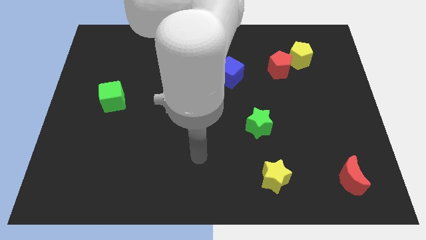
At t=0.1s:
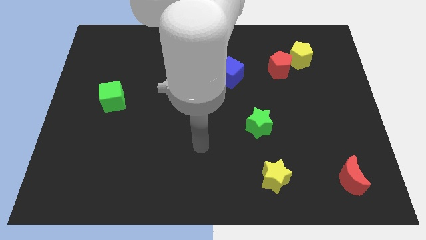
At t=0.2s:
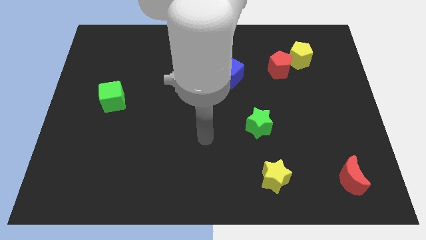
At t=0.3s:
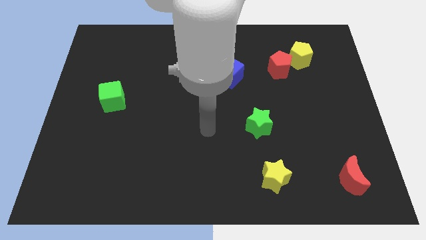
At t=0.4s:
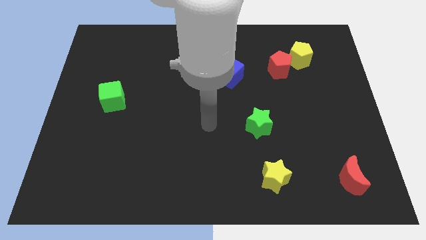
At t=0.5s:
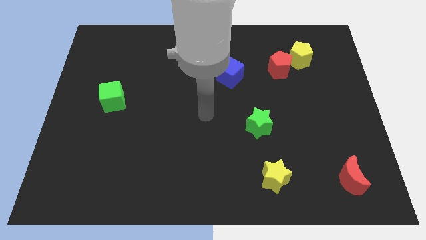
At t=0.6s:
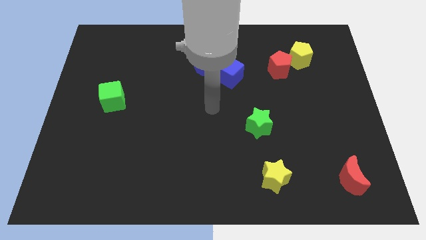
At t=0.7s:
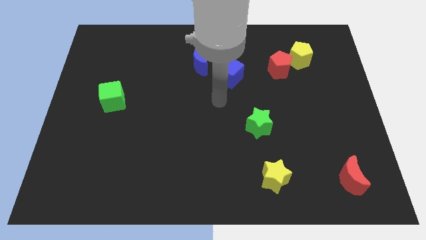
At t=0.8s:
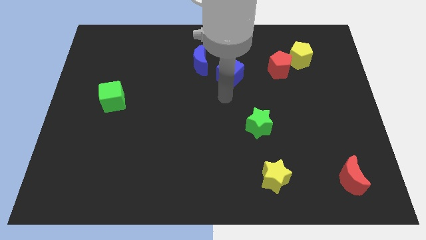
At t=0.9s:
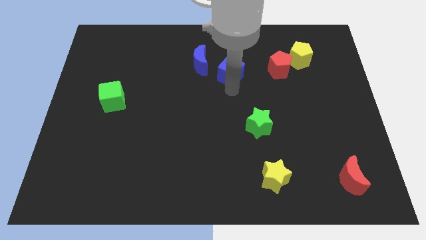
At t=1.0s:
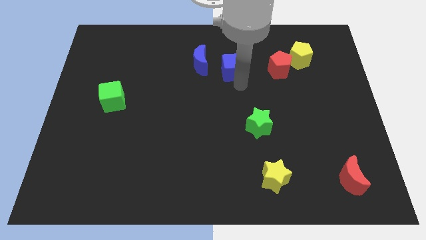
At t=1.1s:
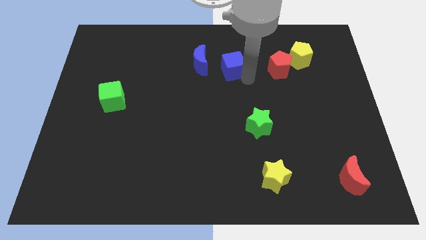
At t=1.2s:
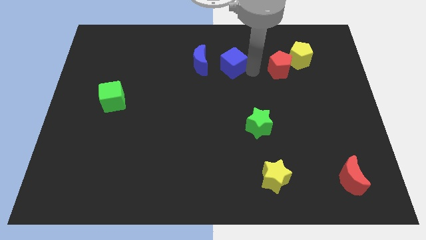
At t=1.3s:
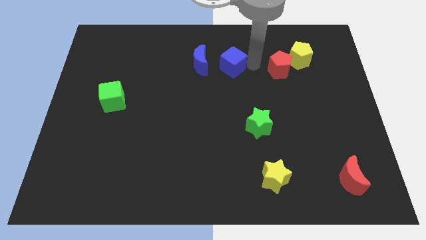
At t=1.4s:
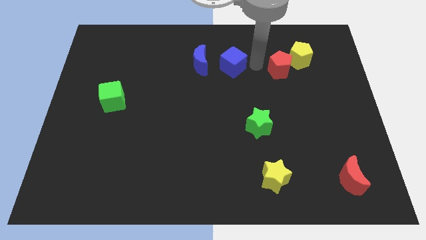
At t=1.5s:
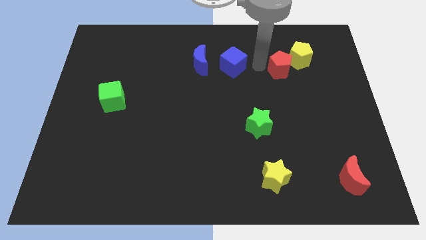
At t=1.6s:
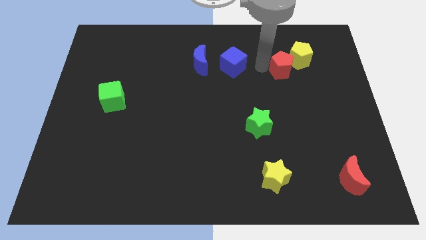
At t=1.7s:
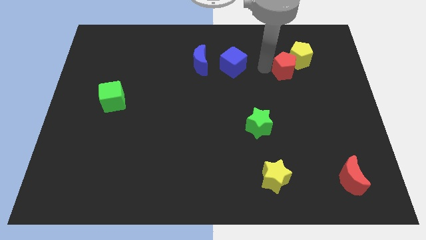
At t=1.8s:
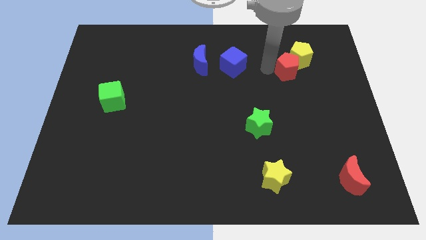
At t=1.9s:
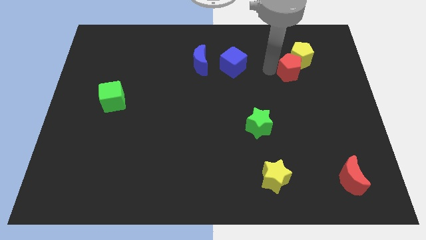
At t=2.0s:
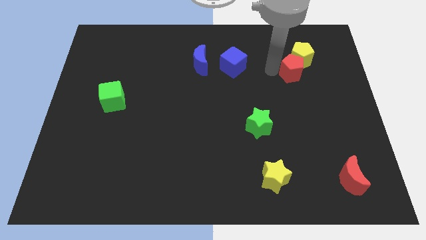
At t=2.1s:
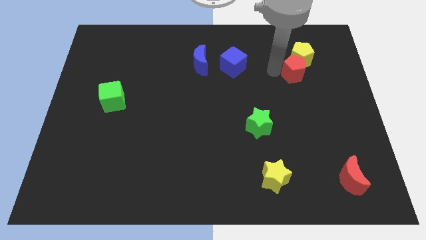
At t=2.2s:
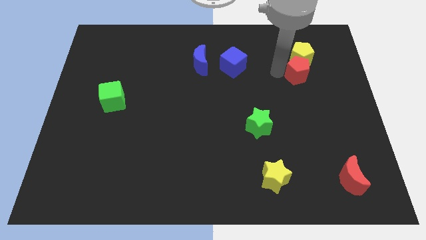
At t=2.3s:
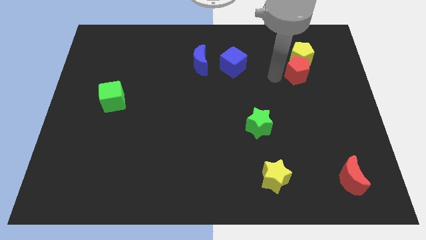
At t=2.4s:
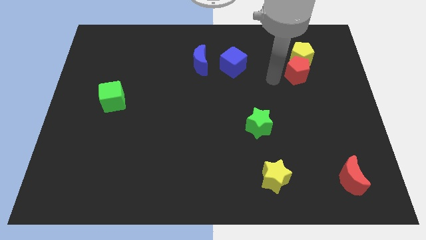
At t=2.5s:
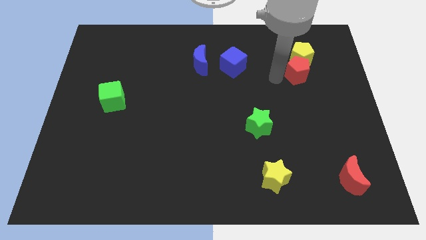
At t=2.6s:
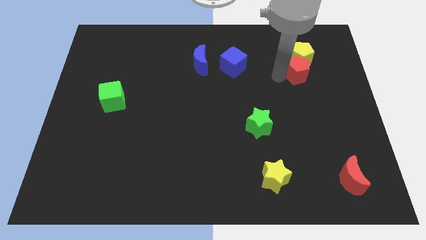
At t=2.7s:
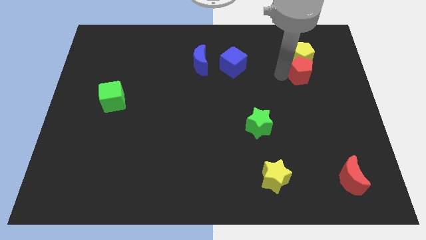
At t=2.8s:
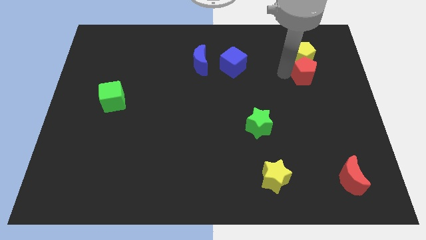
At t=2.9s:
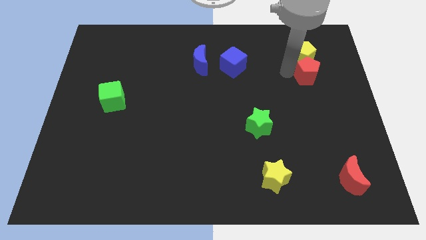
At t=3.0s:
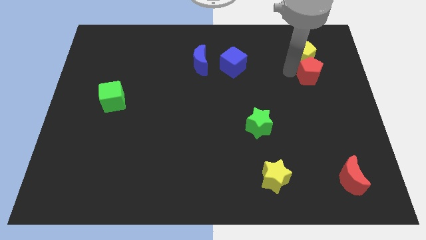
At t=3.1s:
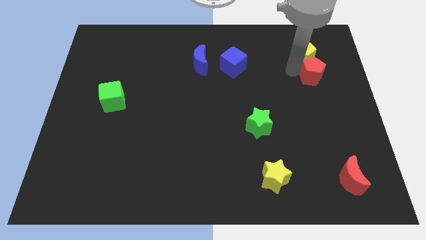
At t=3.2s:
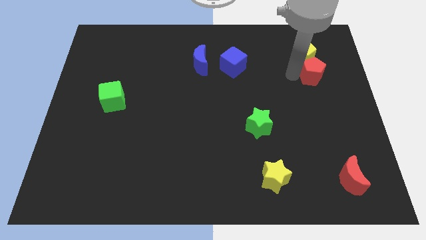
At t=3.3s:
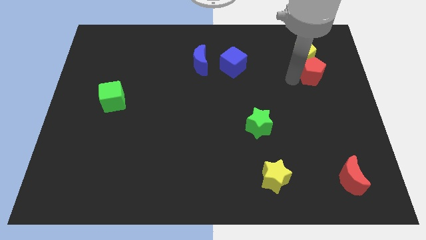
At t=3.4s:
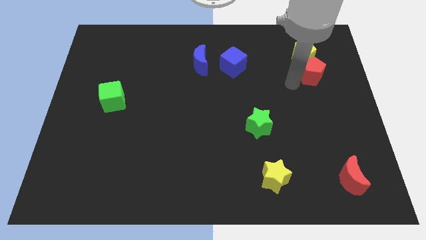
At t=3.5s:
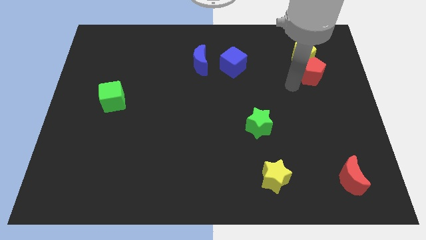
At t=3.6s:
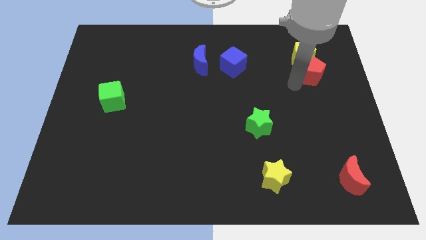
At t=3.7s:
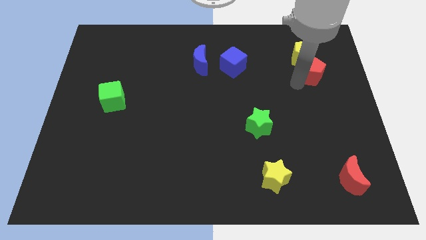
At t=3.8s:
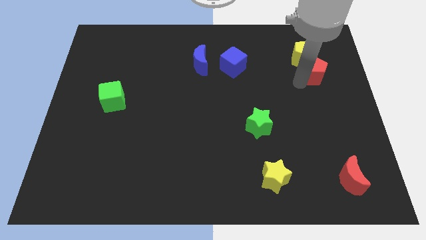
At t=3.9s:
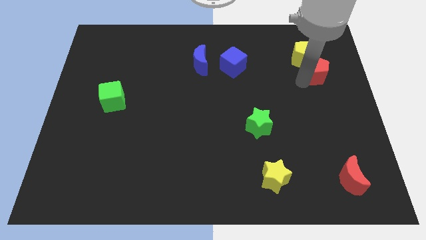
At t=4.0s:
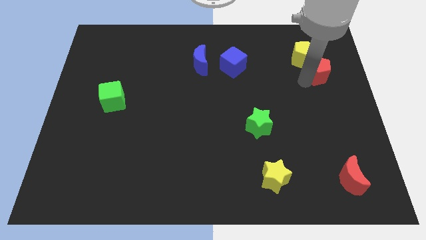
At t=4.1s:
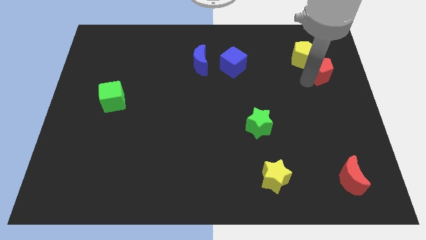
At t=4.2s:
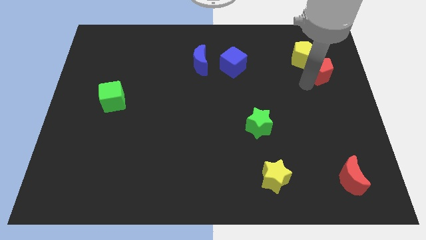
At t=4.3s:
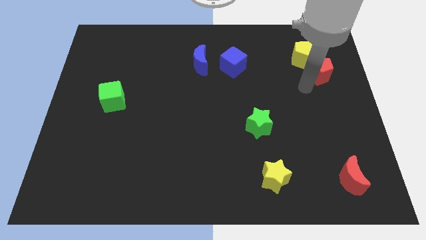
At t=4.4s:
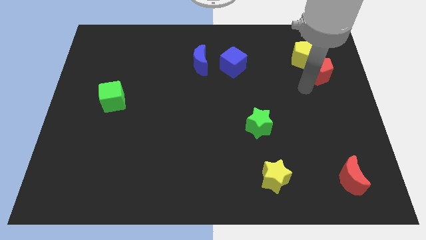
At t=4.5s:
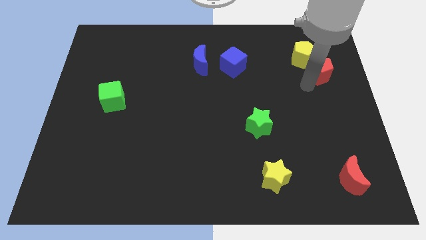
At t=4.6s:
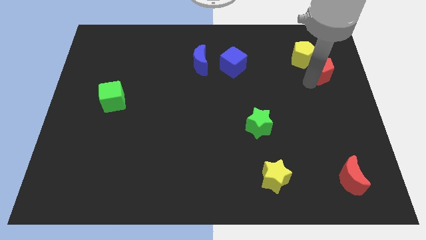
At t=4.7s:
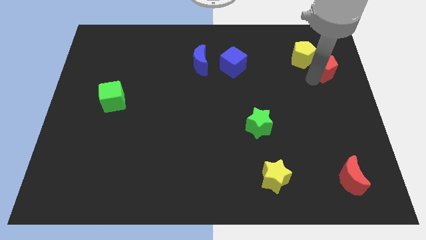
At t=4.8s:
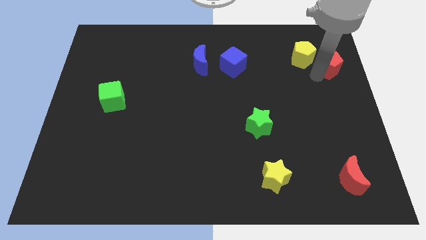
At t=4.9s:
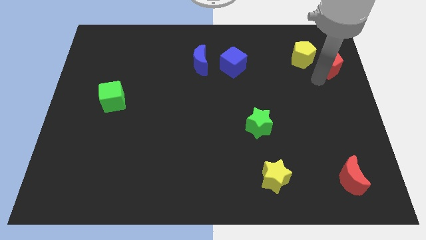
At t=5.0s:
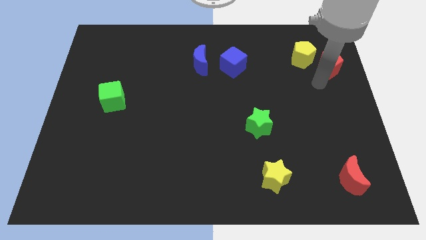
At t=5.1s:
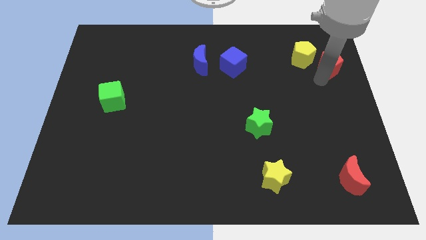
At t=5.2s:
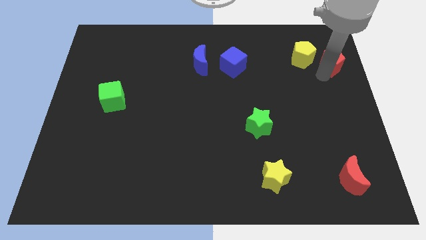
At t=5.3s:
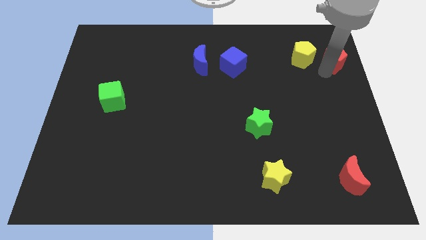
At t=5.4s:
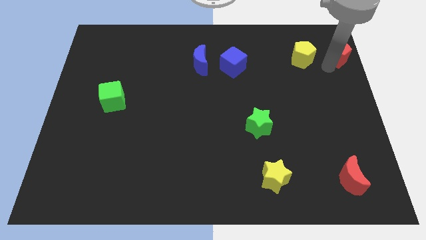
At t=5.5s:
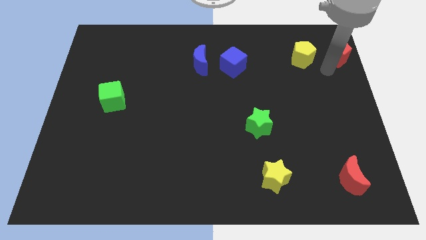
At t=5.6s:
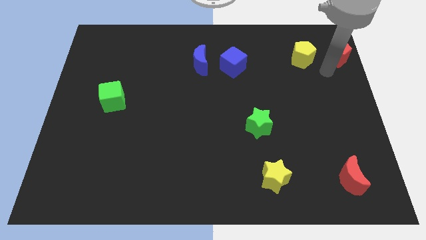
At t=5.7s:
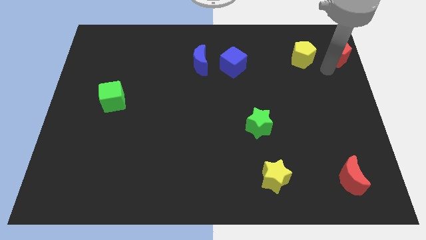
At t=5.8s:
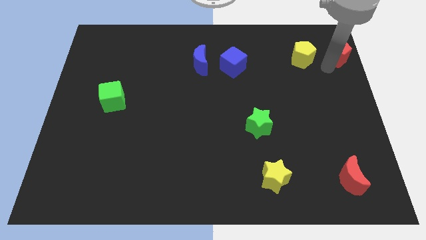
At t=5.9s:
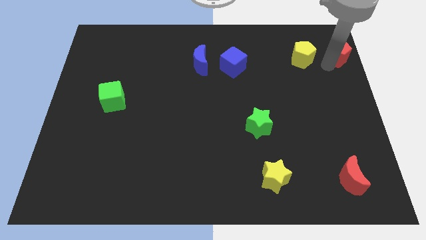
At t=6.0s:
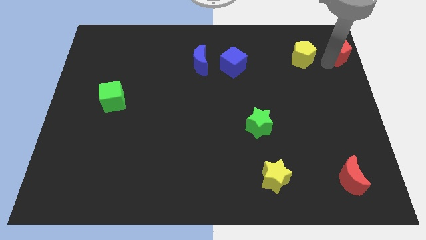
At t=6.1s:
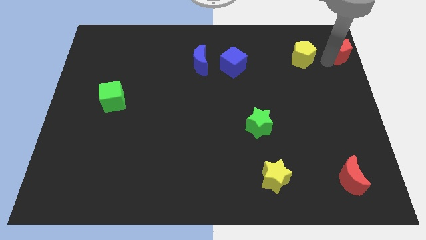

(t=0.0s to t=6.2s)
slide the red pentagon to the top right corner
